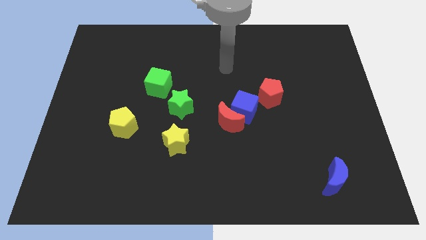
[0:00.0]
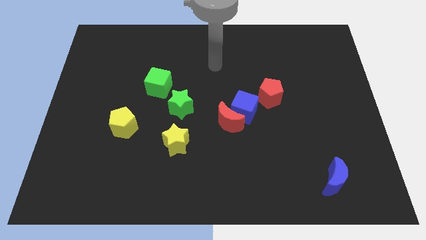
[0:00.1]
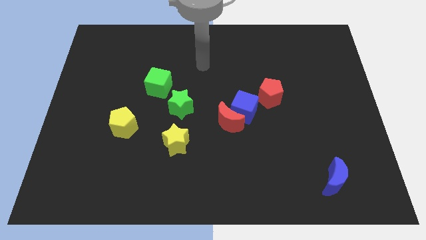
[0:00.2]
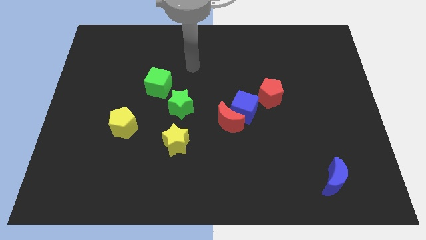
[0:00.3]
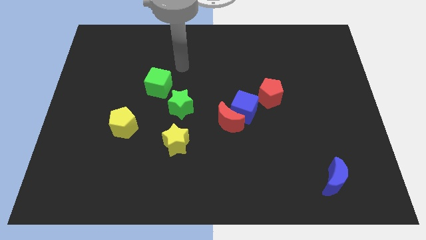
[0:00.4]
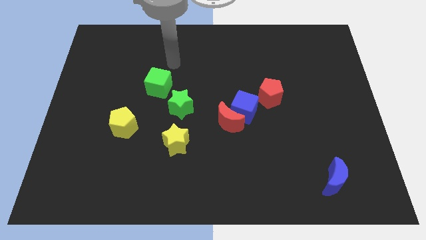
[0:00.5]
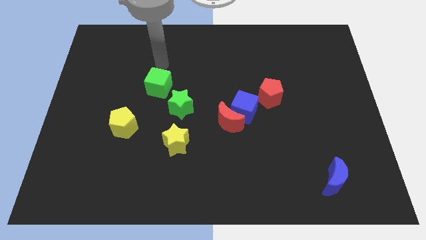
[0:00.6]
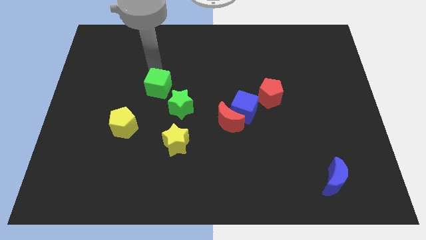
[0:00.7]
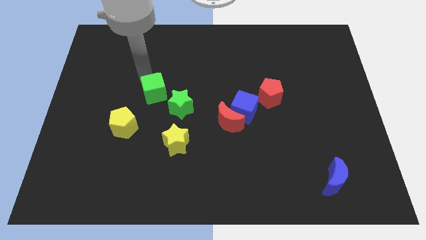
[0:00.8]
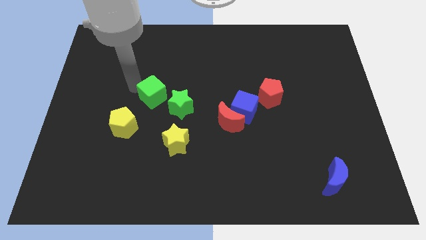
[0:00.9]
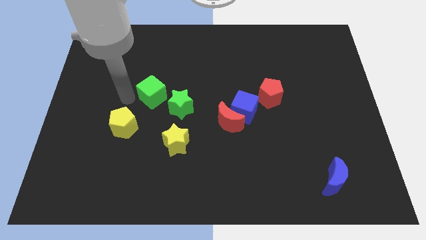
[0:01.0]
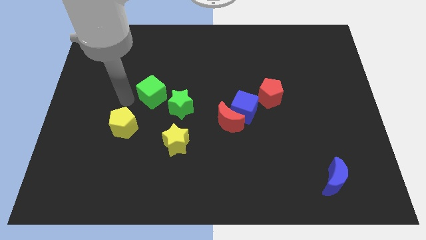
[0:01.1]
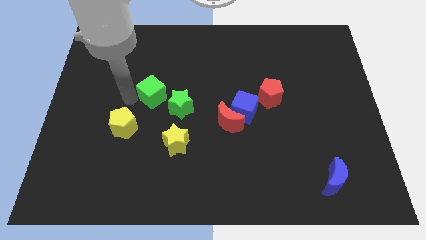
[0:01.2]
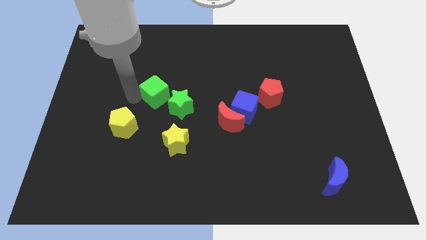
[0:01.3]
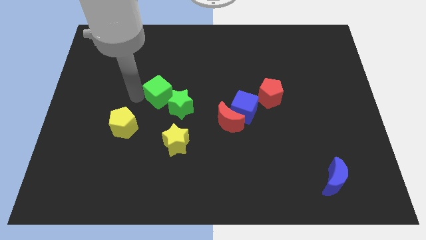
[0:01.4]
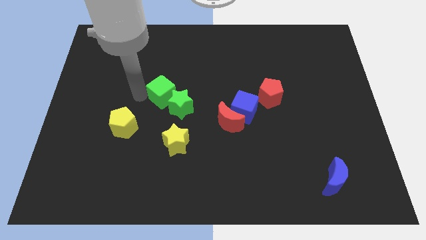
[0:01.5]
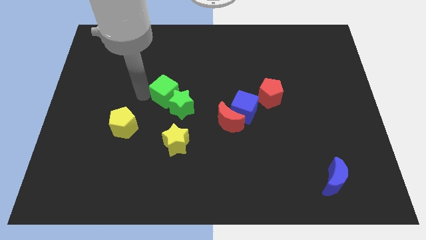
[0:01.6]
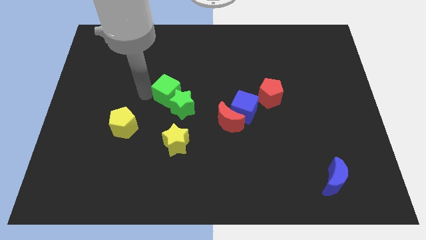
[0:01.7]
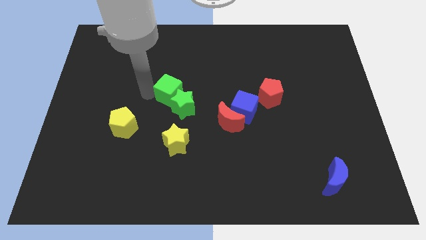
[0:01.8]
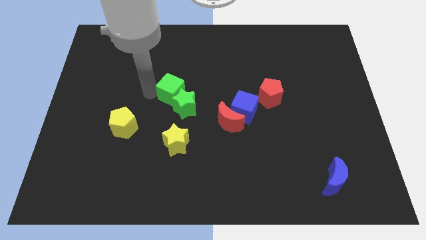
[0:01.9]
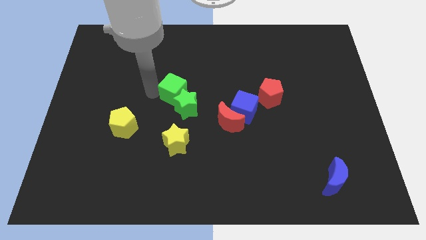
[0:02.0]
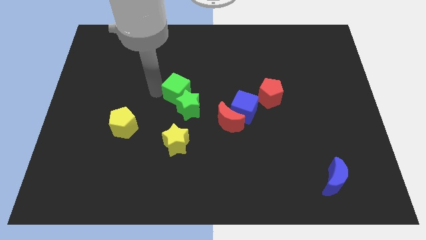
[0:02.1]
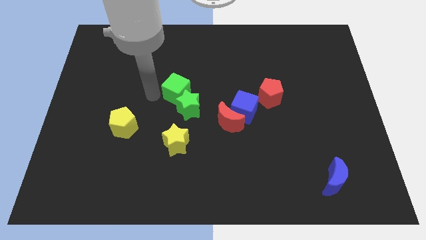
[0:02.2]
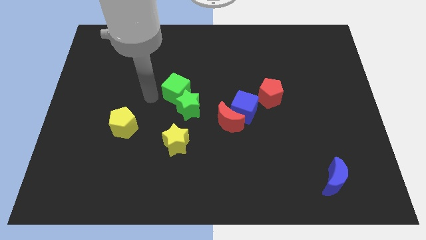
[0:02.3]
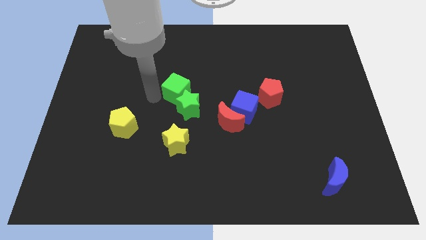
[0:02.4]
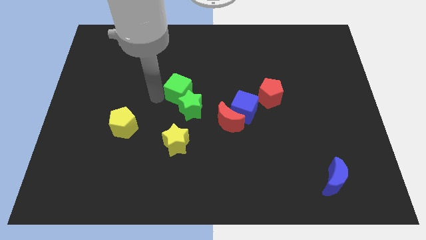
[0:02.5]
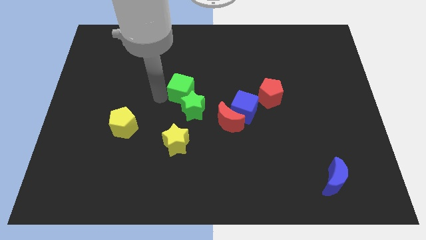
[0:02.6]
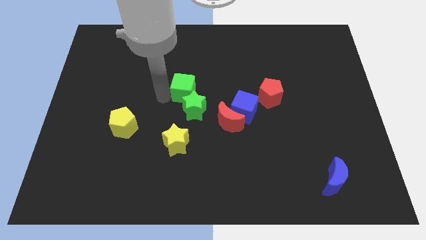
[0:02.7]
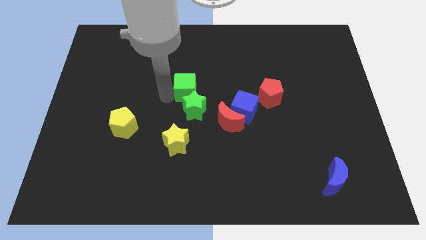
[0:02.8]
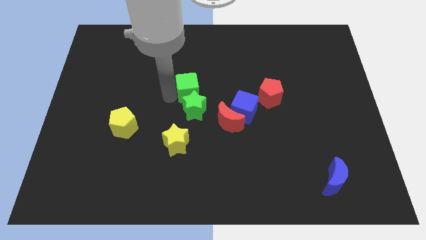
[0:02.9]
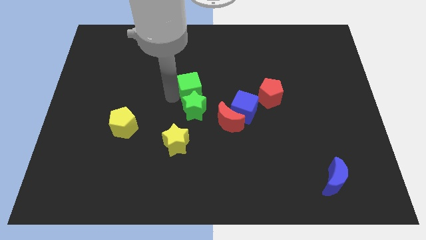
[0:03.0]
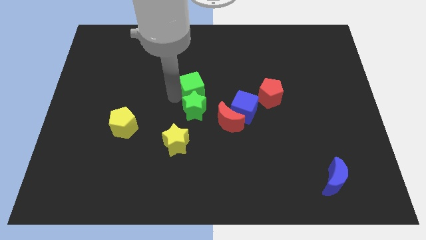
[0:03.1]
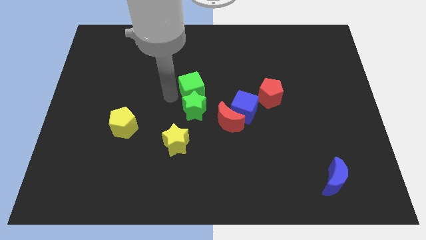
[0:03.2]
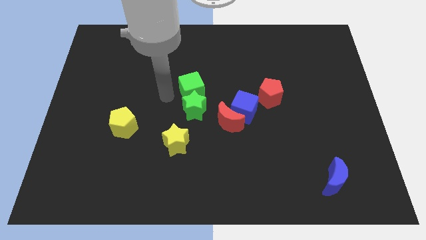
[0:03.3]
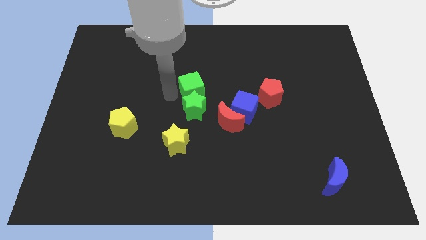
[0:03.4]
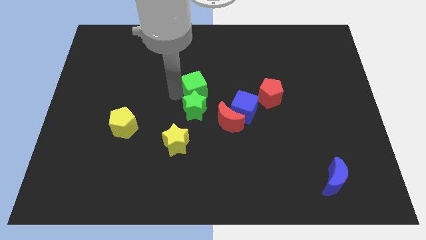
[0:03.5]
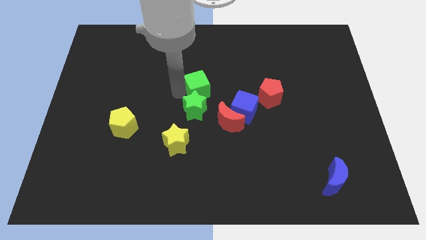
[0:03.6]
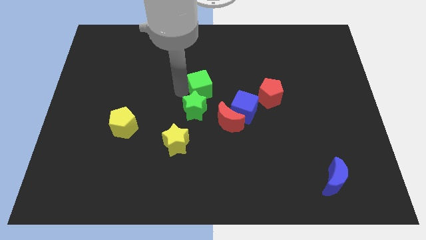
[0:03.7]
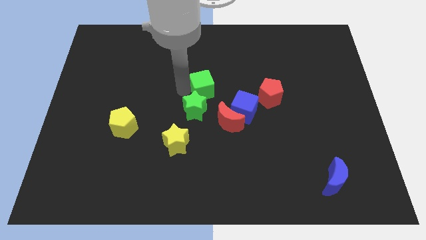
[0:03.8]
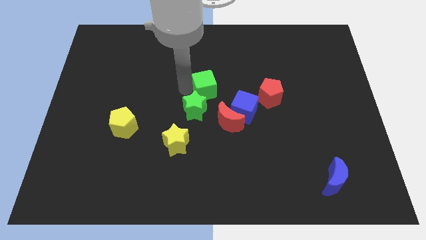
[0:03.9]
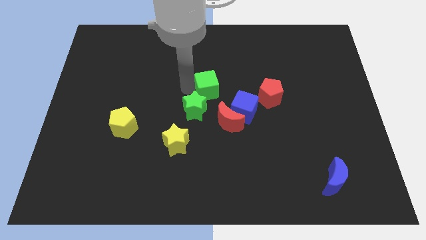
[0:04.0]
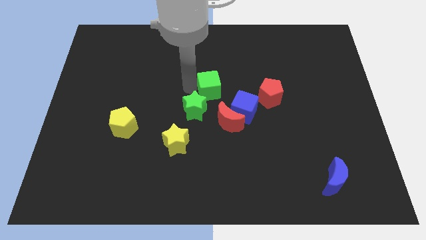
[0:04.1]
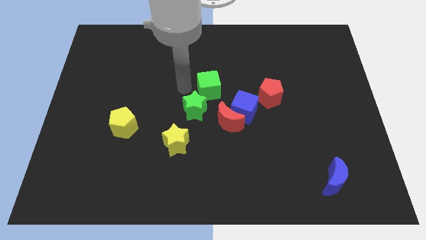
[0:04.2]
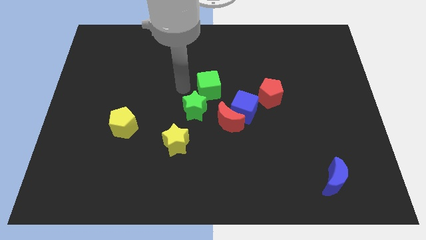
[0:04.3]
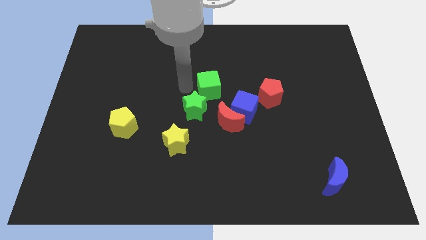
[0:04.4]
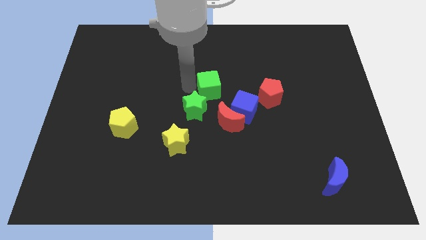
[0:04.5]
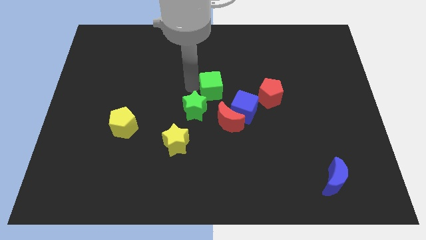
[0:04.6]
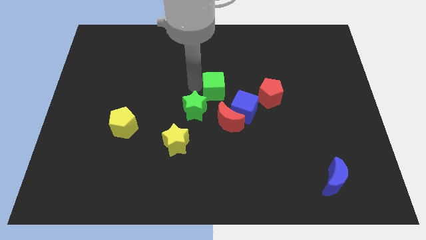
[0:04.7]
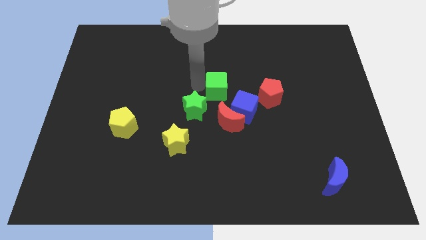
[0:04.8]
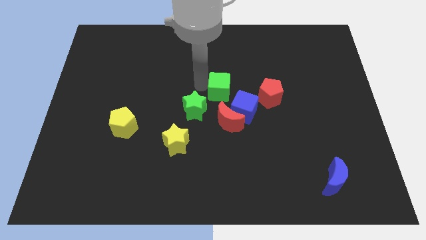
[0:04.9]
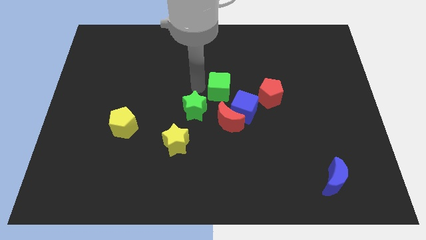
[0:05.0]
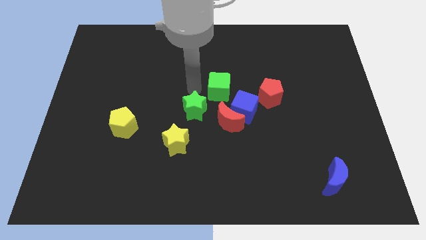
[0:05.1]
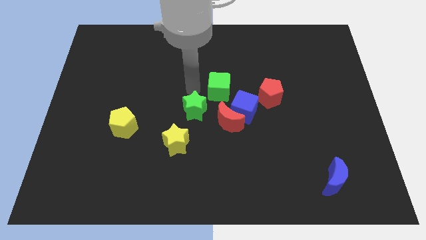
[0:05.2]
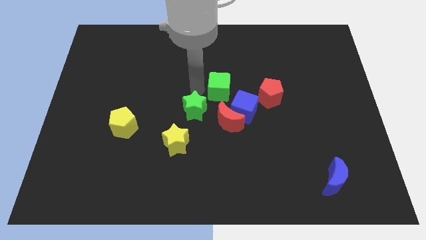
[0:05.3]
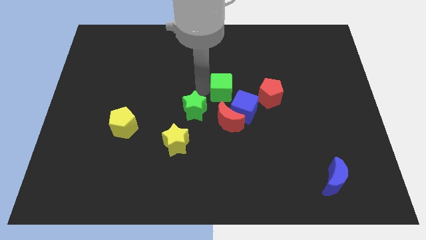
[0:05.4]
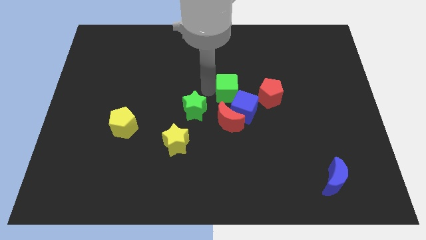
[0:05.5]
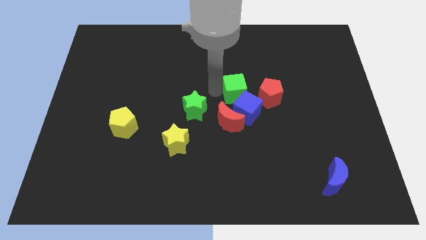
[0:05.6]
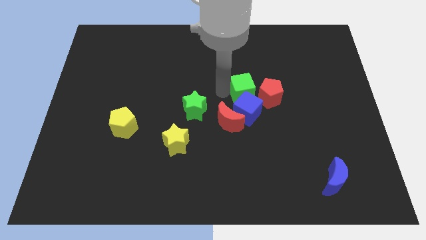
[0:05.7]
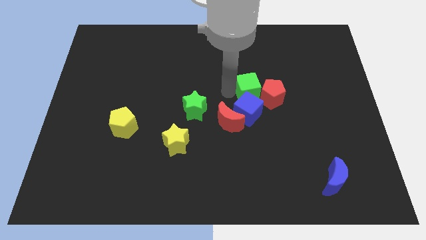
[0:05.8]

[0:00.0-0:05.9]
push the green cube to the red pentagon

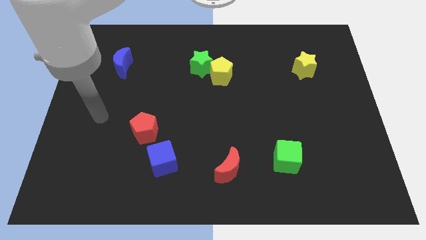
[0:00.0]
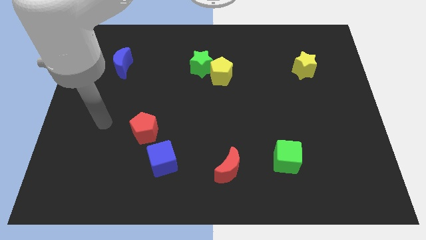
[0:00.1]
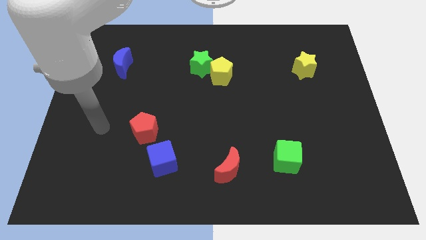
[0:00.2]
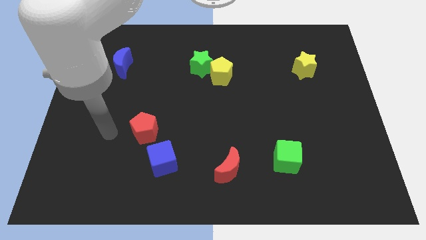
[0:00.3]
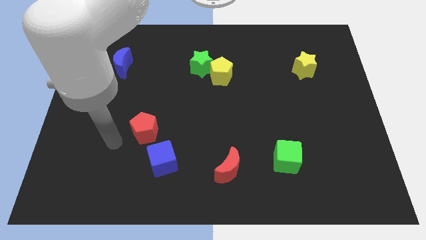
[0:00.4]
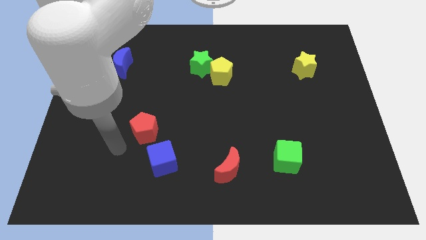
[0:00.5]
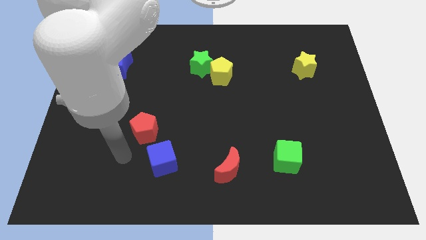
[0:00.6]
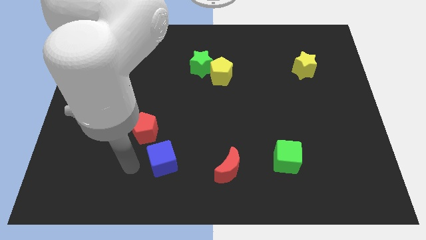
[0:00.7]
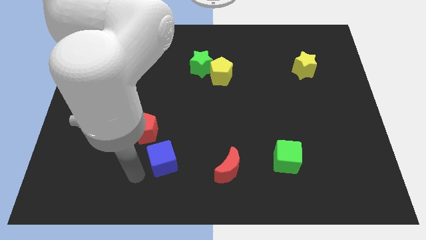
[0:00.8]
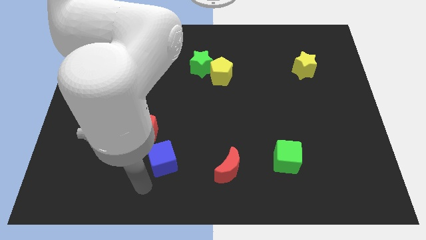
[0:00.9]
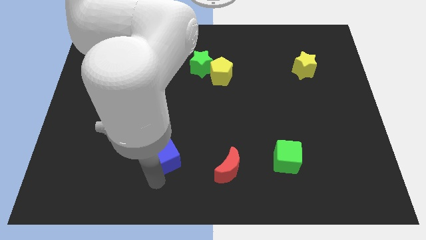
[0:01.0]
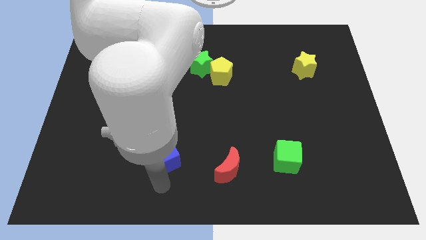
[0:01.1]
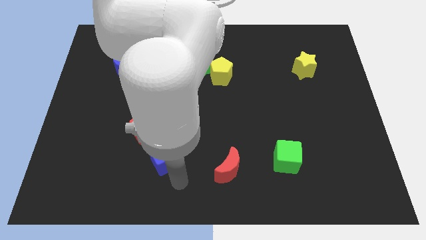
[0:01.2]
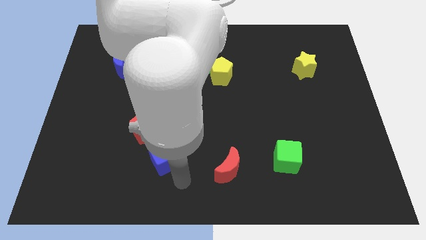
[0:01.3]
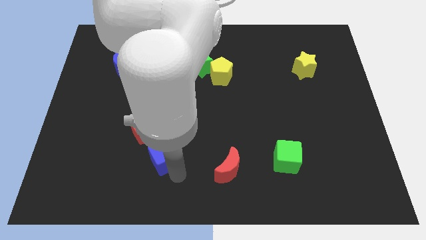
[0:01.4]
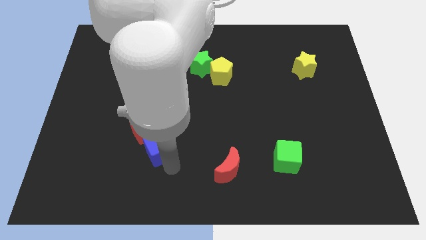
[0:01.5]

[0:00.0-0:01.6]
move the blue cube towards the red pentagon

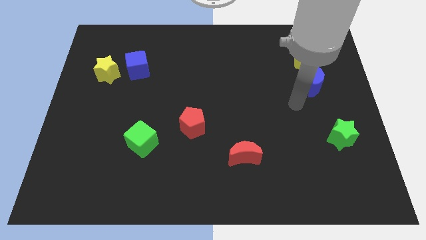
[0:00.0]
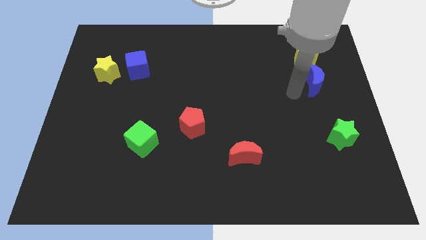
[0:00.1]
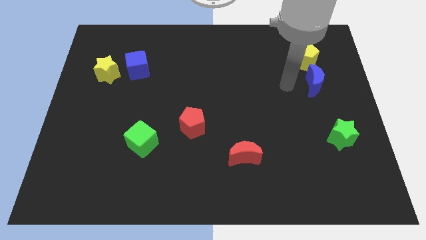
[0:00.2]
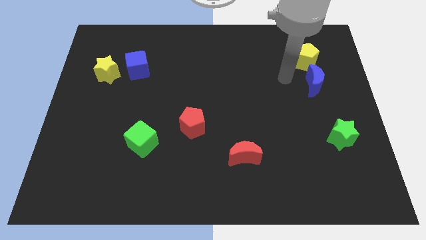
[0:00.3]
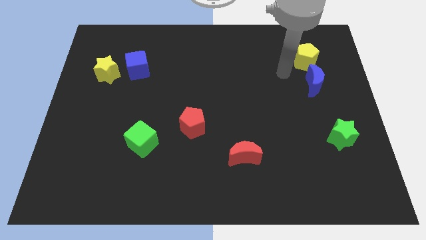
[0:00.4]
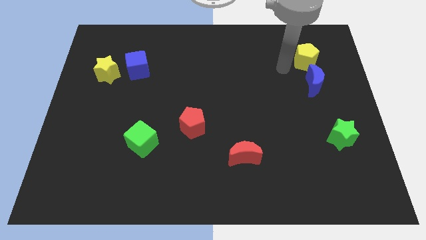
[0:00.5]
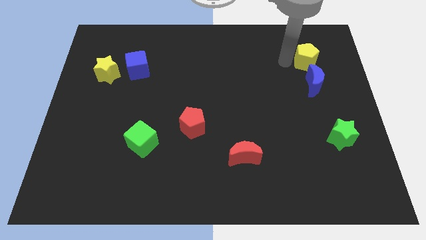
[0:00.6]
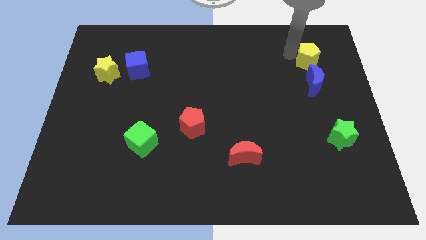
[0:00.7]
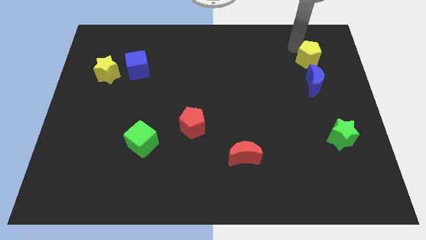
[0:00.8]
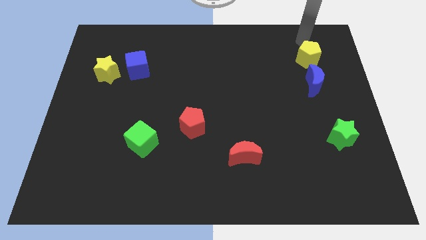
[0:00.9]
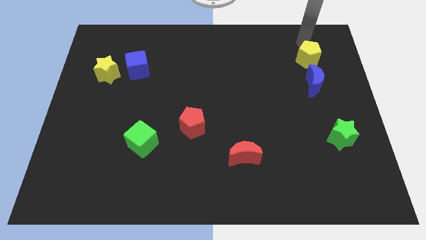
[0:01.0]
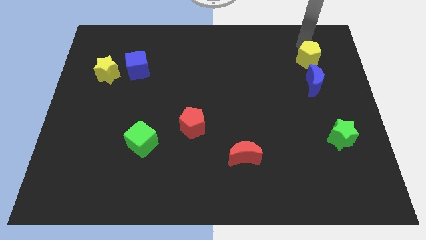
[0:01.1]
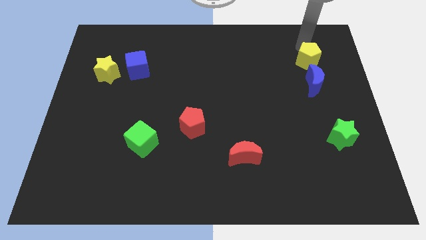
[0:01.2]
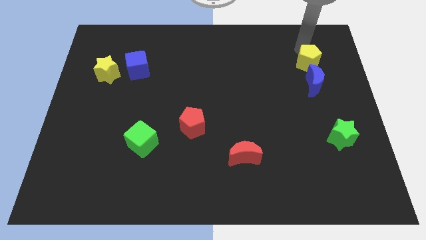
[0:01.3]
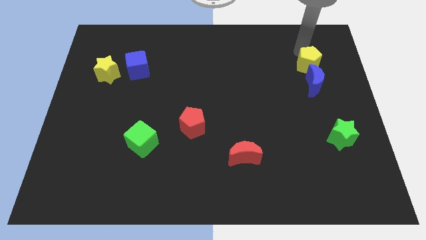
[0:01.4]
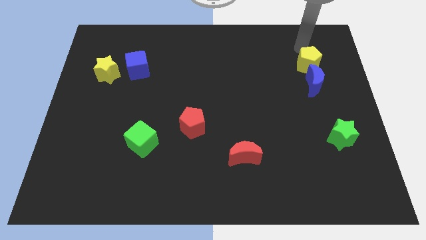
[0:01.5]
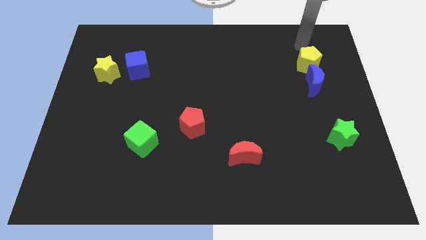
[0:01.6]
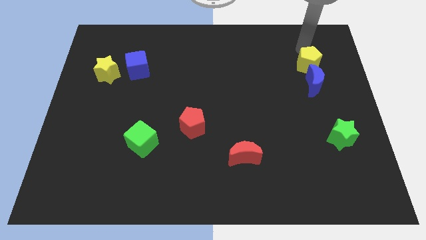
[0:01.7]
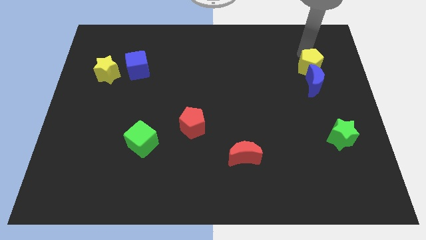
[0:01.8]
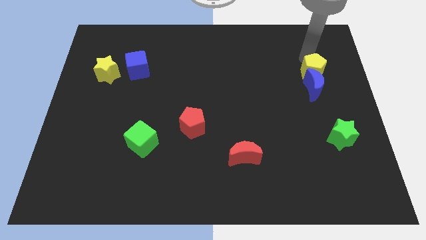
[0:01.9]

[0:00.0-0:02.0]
slide the yellow pentagon next to the blue moon
